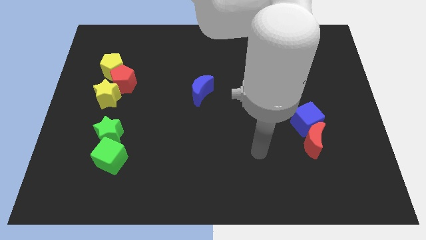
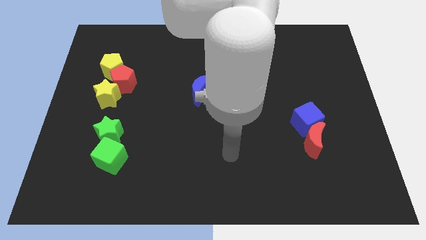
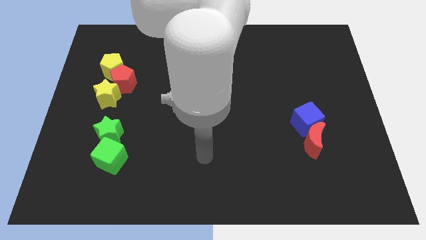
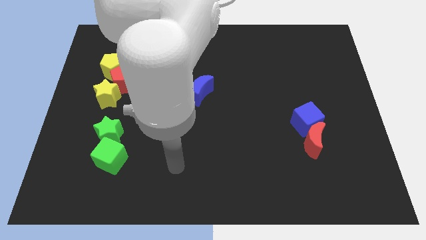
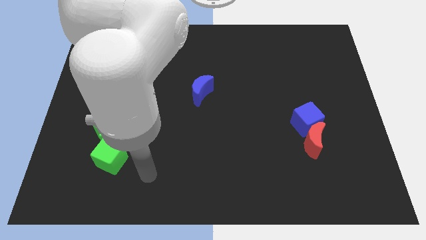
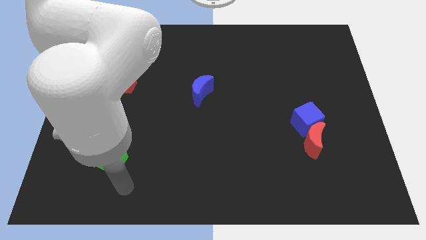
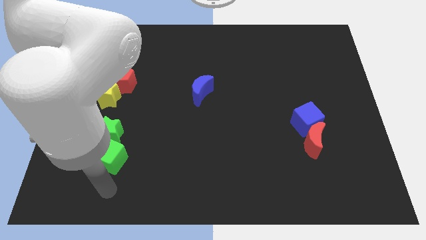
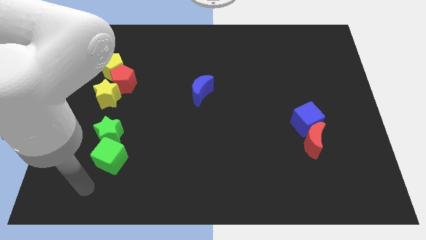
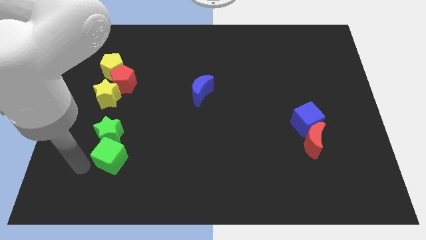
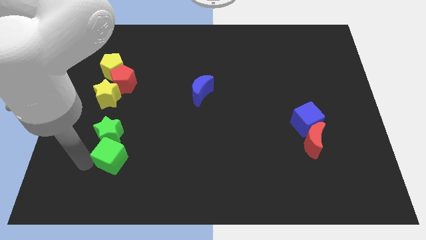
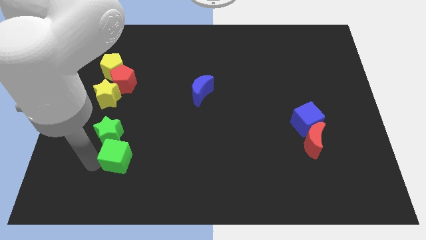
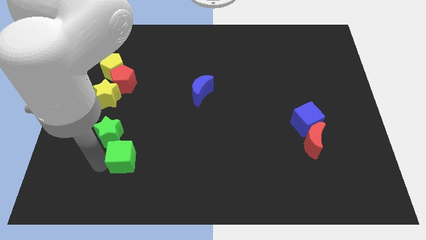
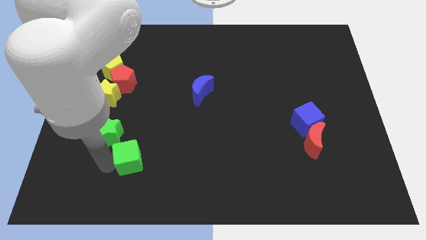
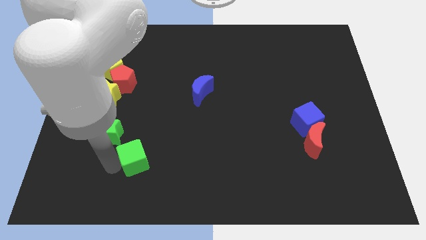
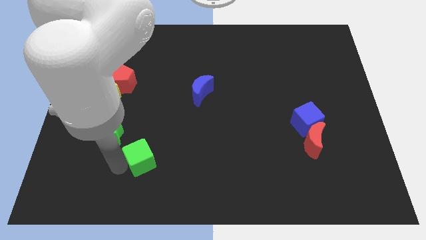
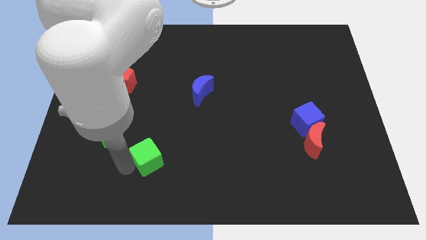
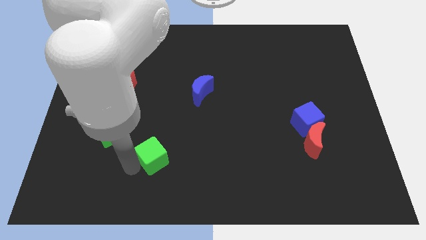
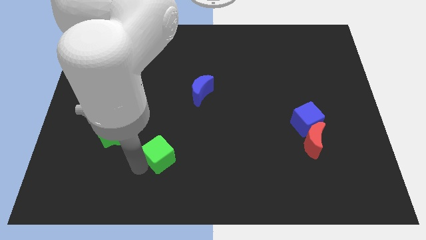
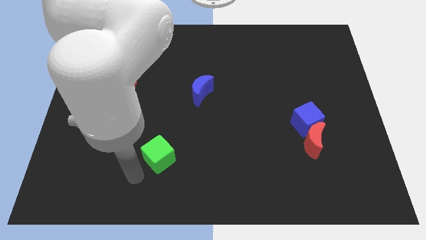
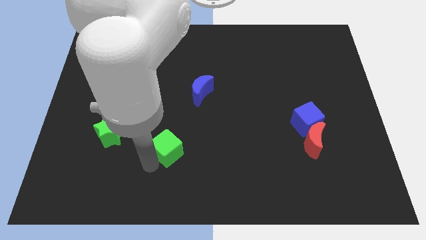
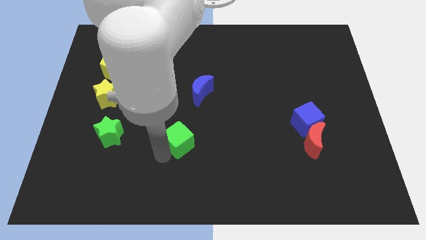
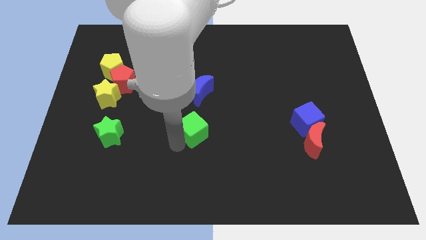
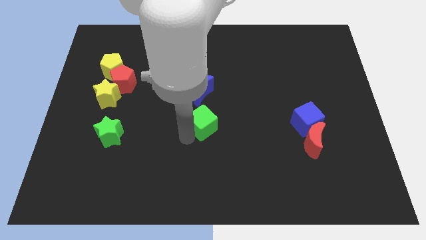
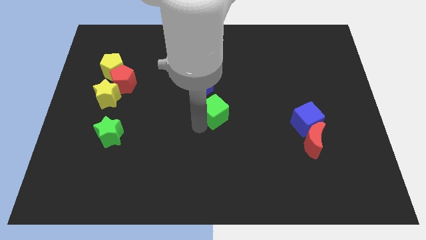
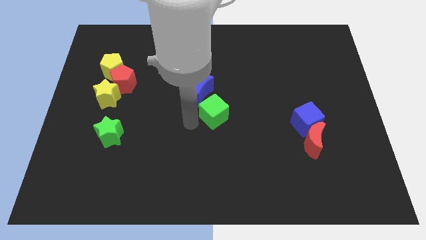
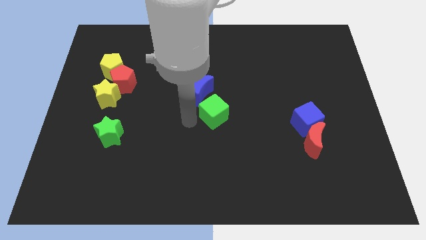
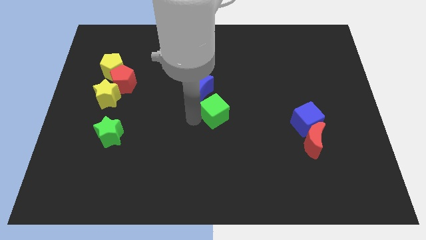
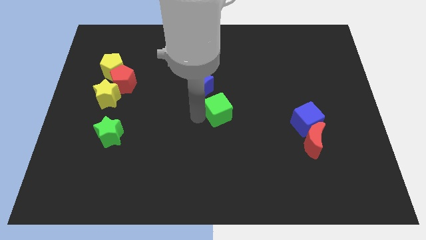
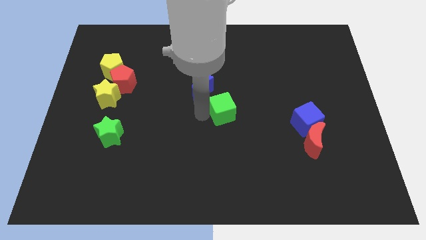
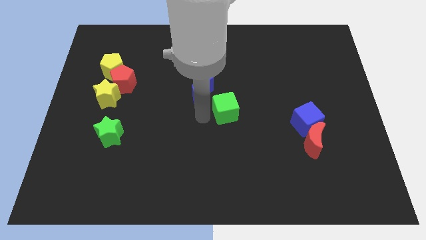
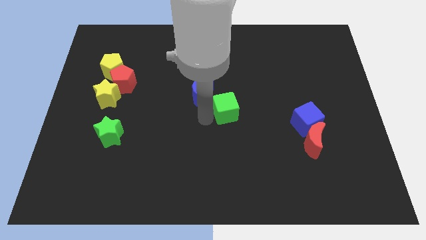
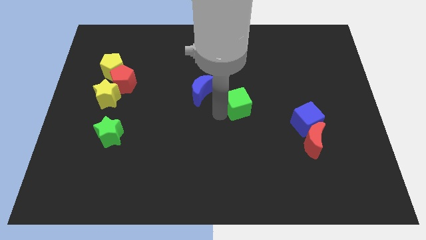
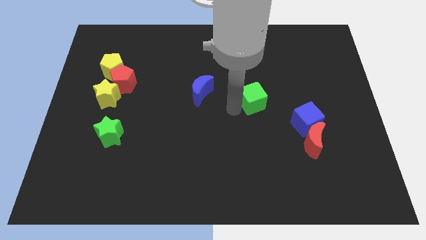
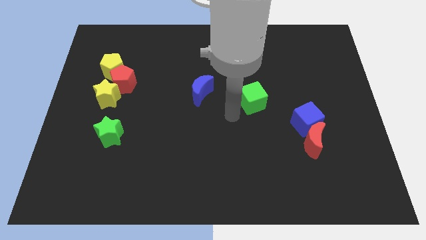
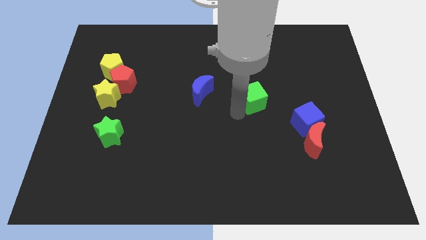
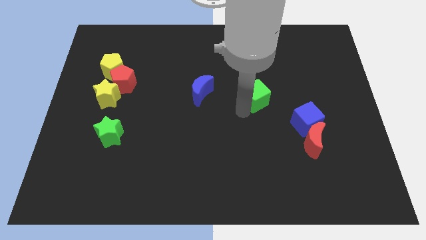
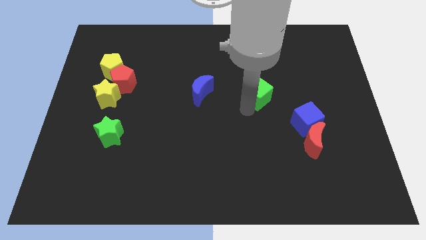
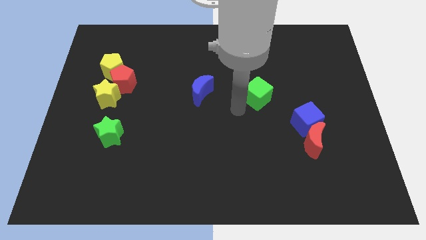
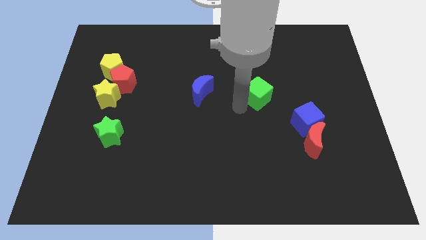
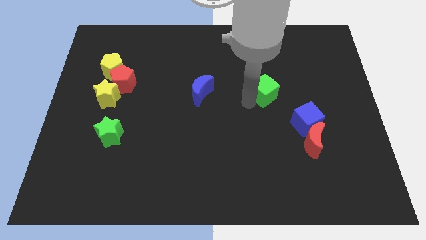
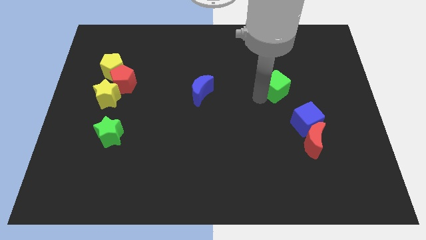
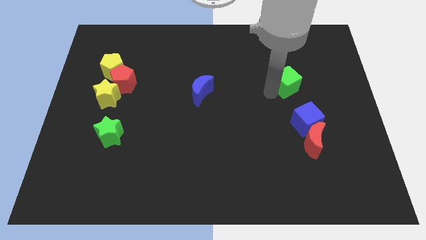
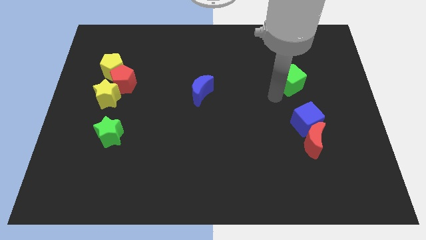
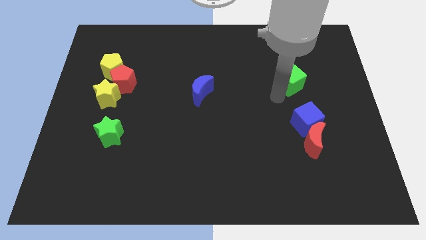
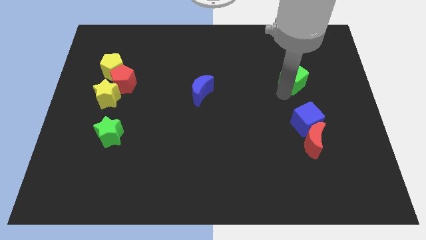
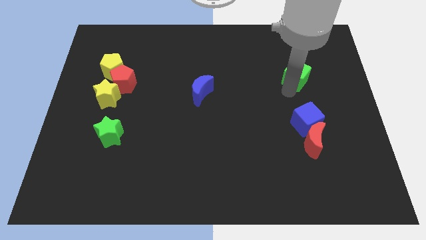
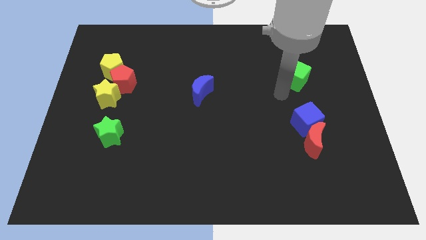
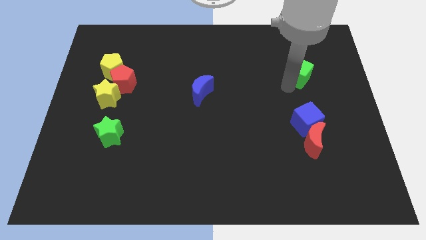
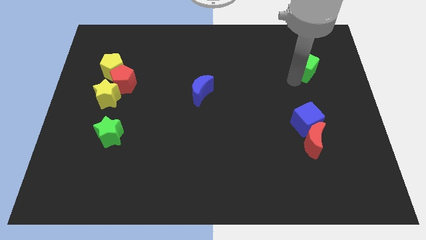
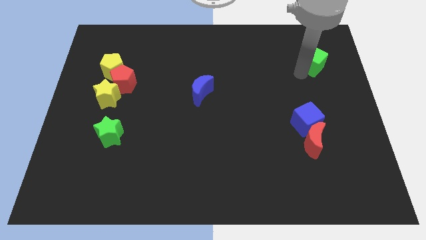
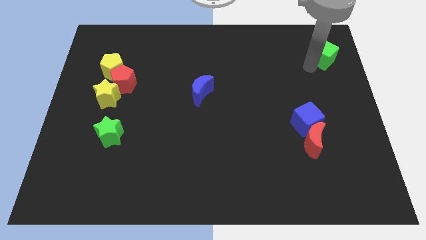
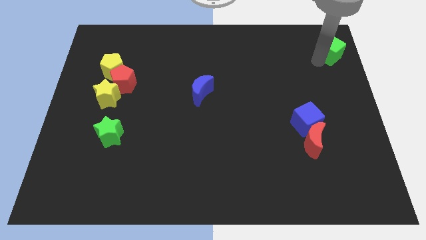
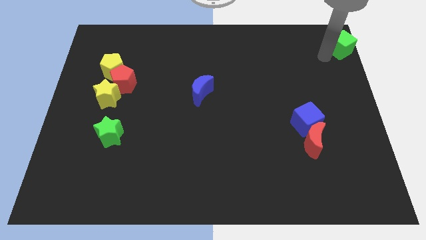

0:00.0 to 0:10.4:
move the green cube to the top right corner

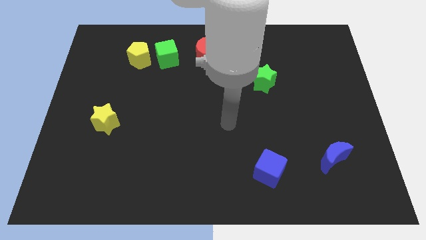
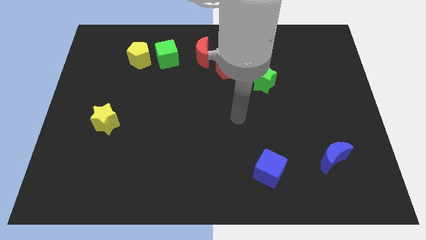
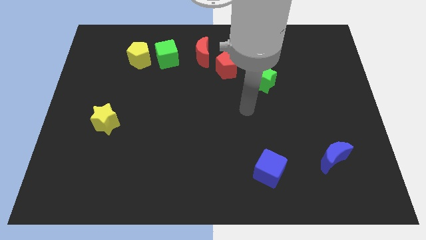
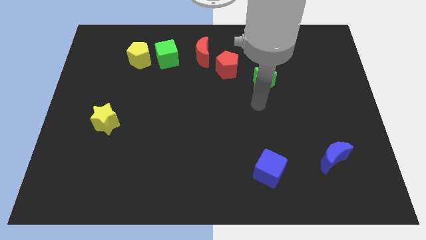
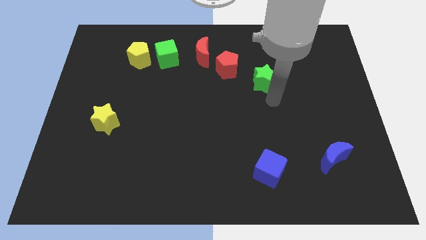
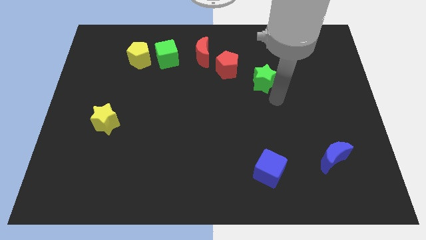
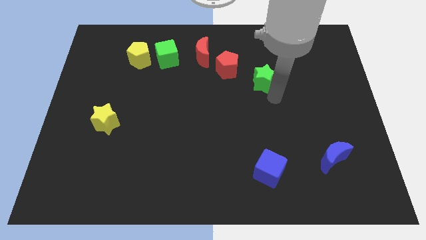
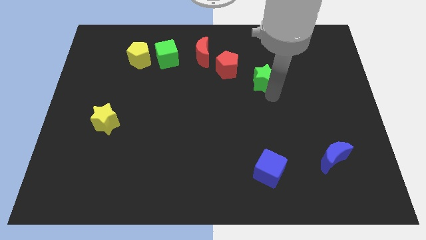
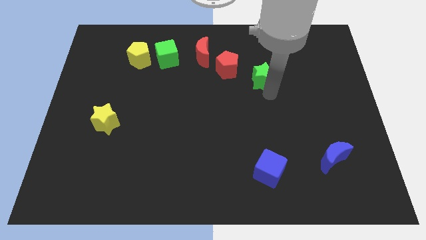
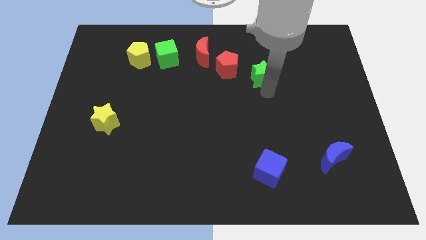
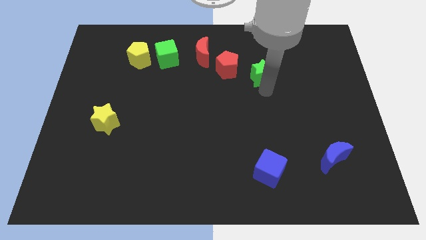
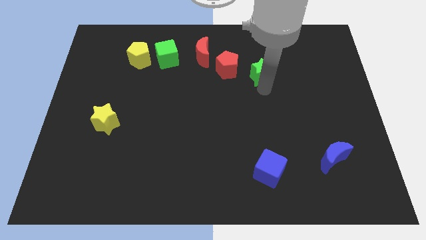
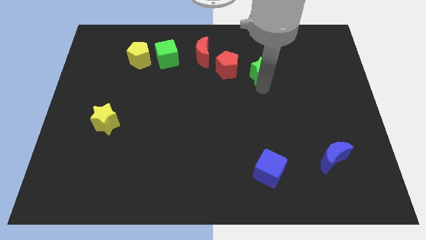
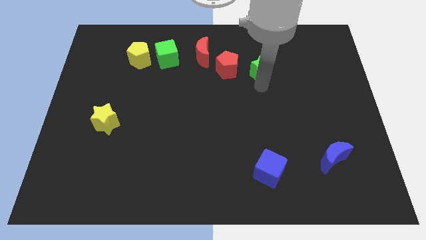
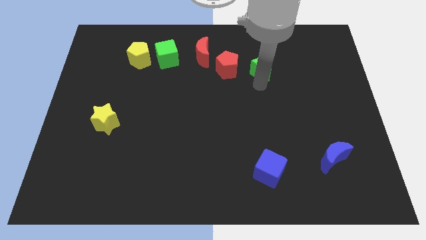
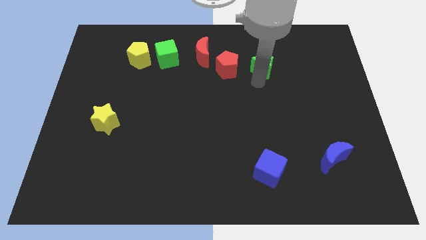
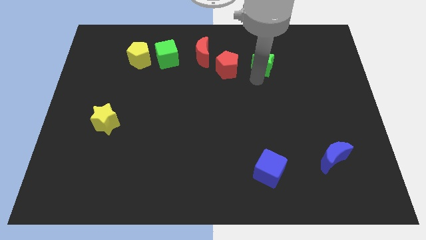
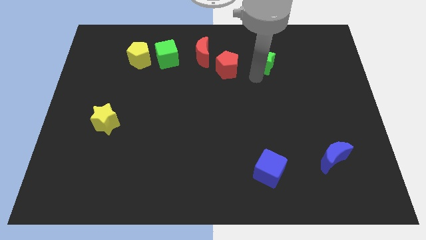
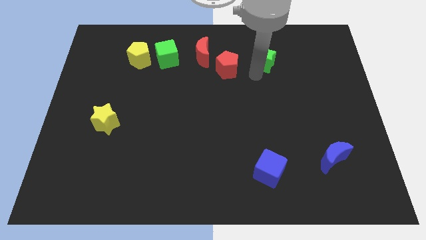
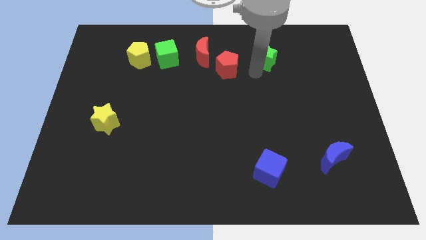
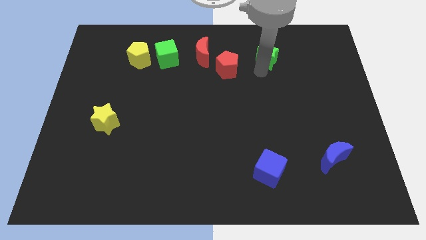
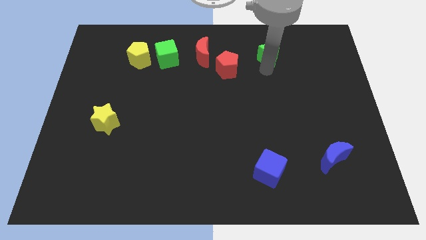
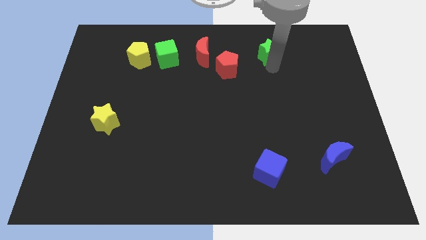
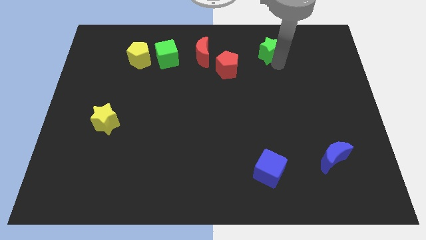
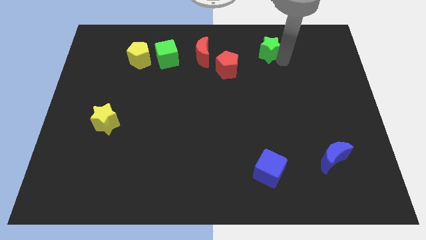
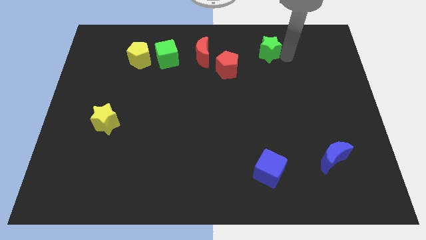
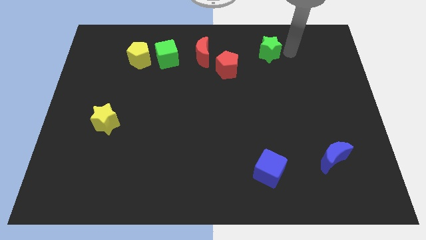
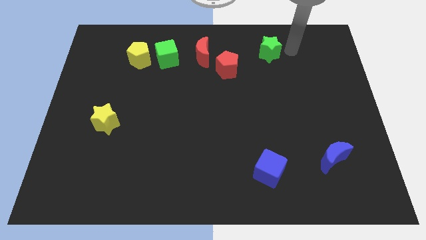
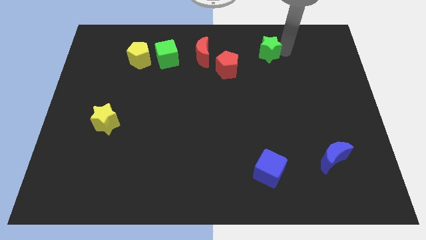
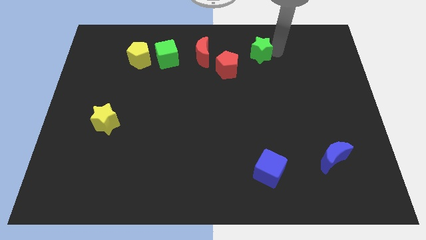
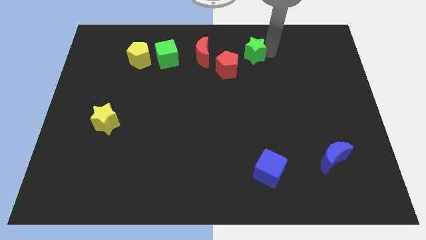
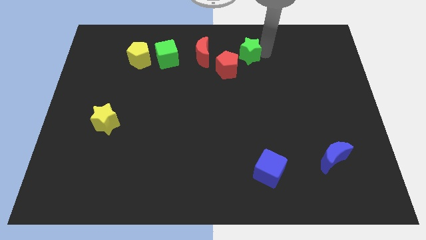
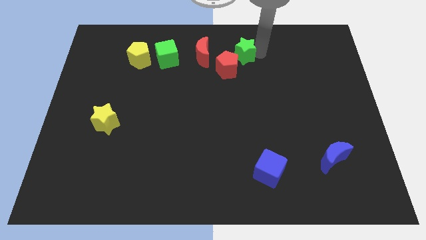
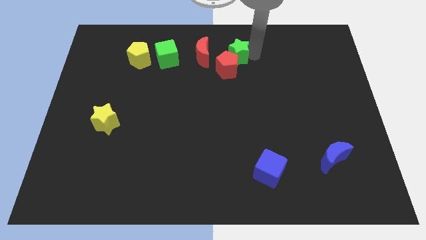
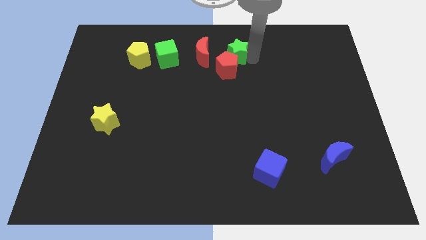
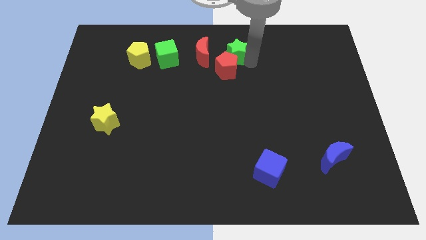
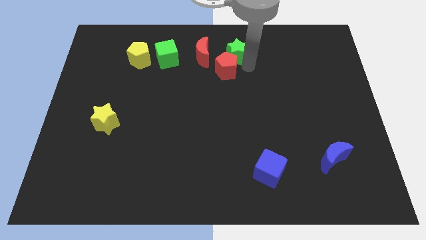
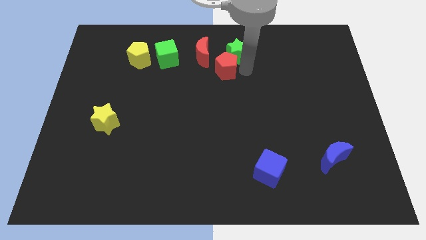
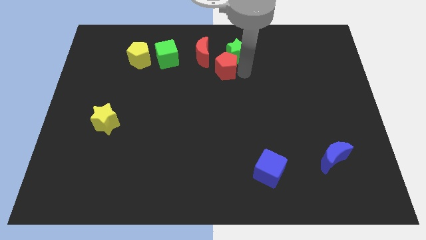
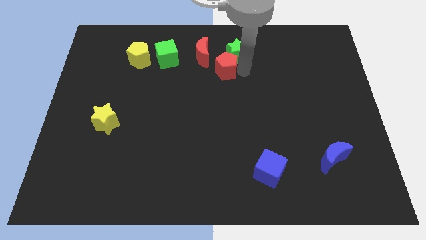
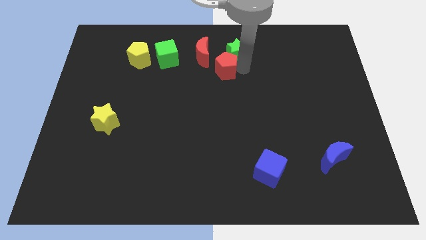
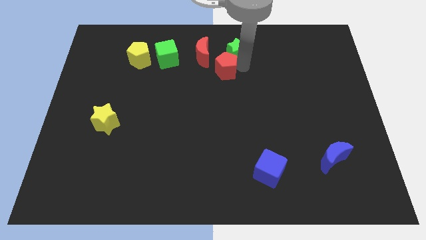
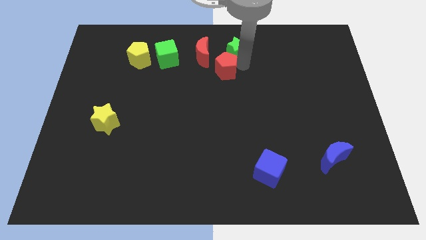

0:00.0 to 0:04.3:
push the green star to the top
